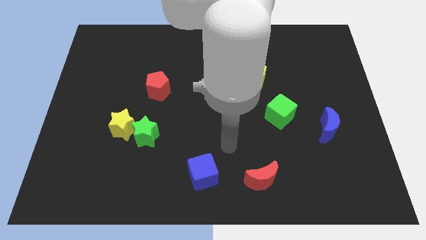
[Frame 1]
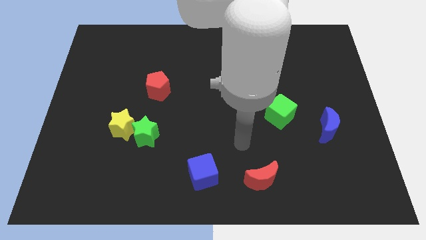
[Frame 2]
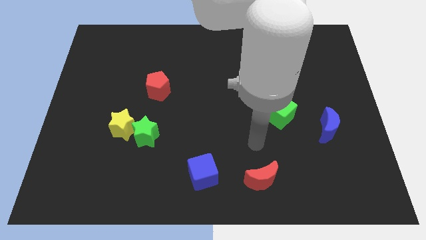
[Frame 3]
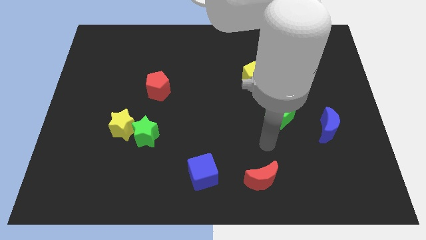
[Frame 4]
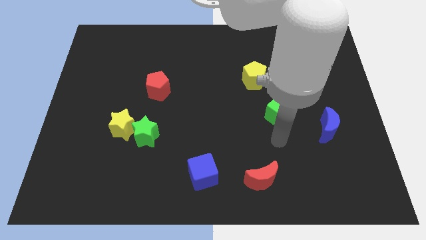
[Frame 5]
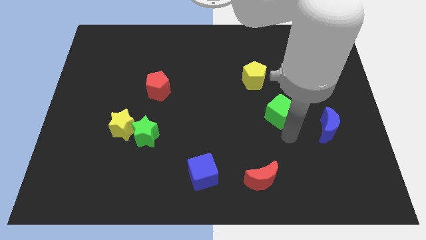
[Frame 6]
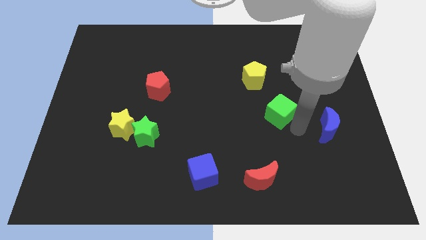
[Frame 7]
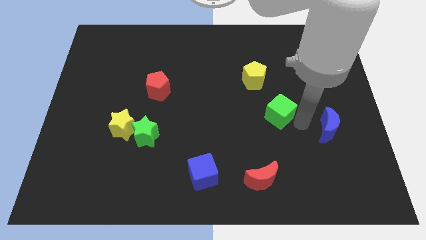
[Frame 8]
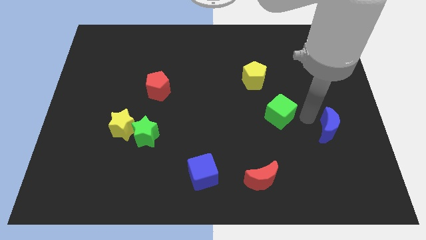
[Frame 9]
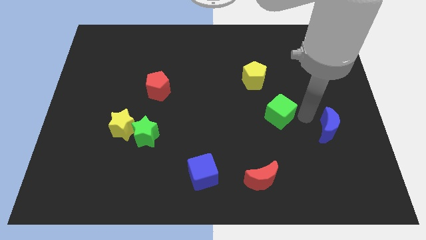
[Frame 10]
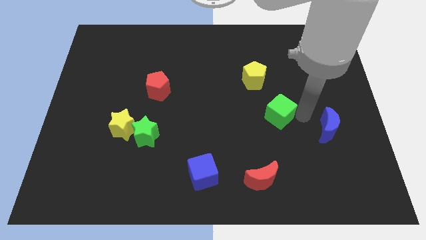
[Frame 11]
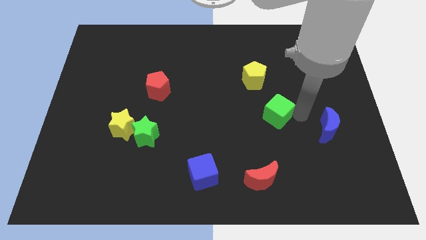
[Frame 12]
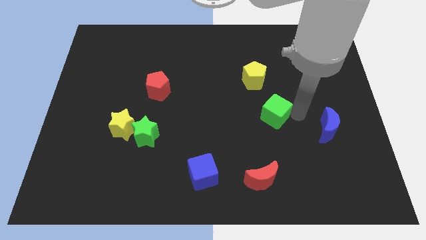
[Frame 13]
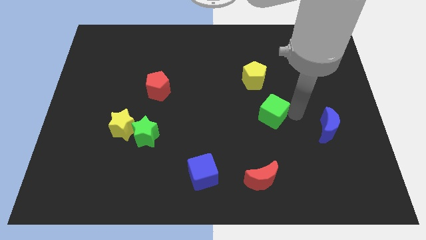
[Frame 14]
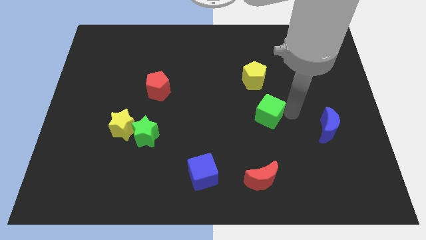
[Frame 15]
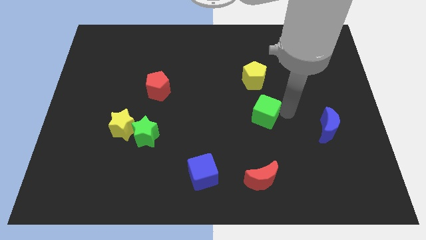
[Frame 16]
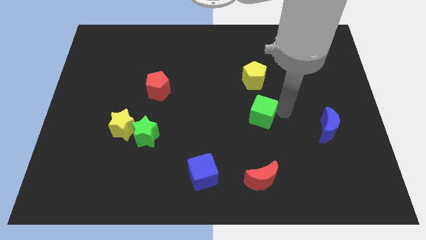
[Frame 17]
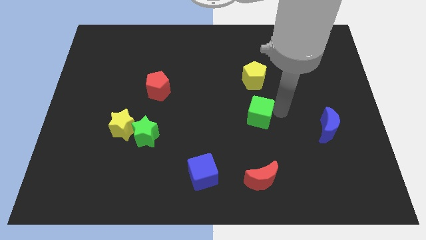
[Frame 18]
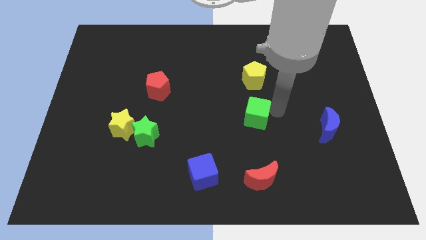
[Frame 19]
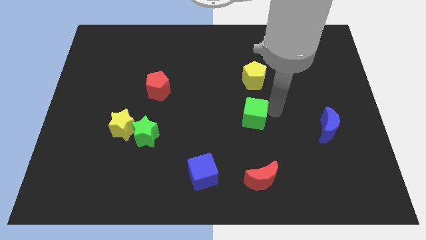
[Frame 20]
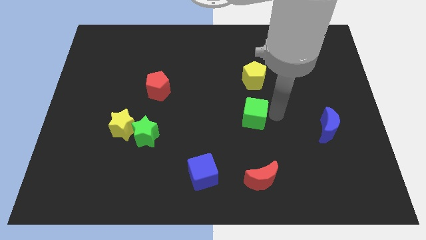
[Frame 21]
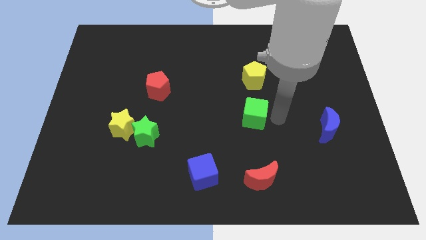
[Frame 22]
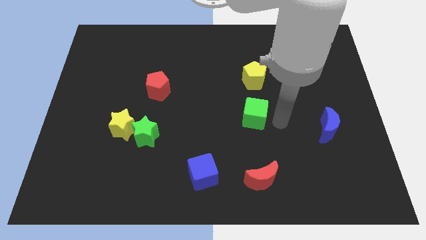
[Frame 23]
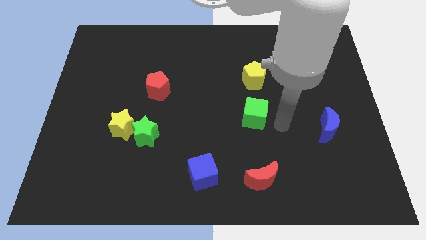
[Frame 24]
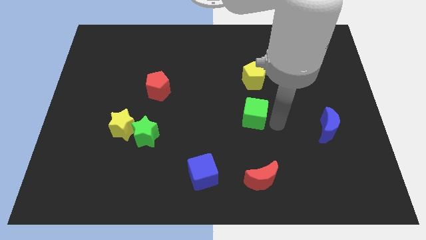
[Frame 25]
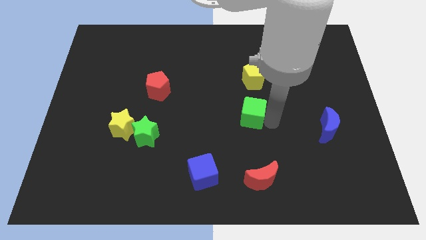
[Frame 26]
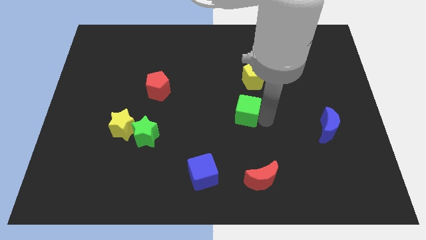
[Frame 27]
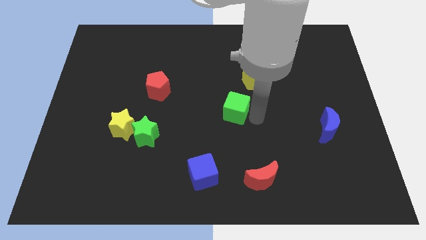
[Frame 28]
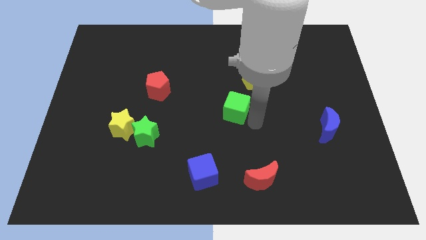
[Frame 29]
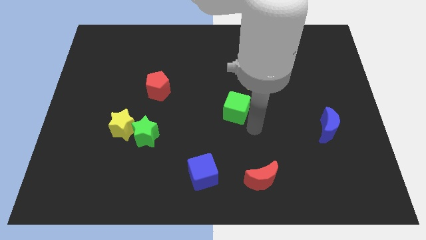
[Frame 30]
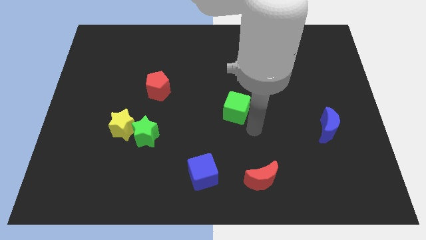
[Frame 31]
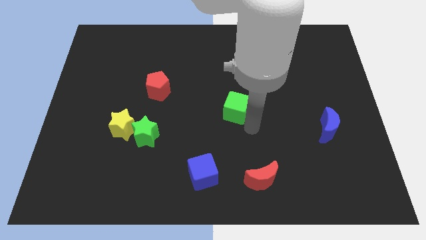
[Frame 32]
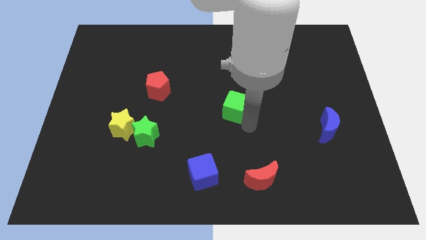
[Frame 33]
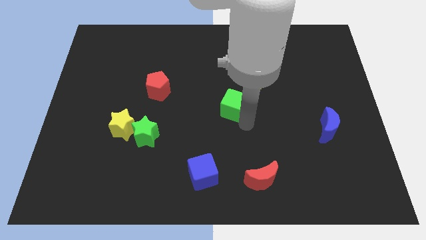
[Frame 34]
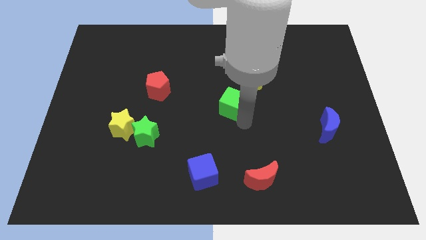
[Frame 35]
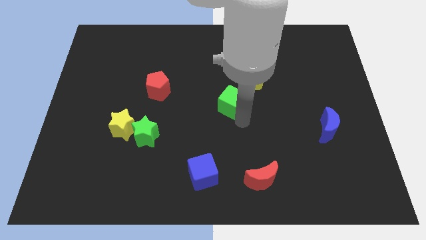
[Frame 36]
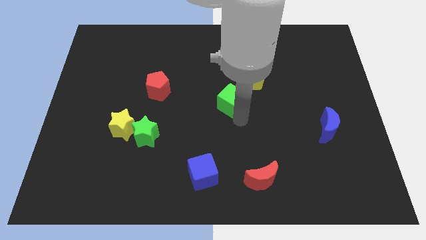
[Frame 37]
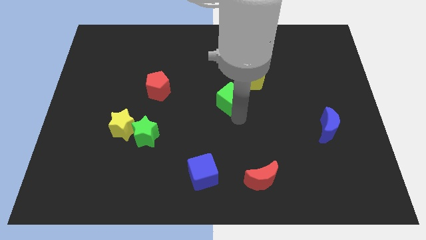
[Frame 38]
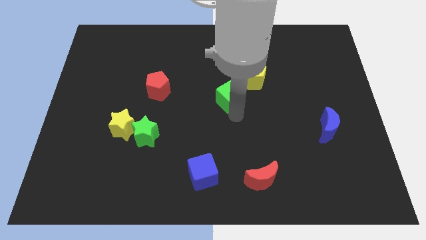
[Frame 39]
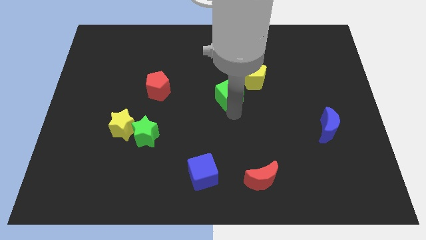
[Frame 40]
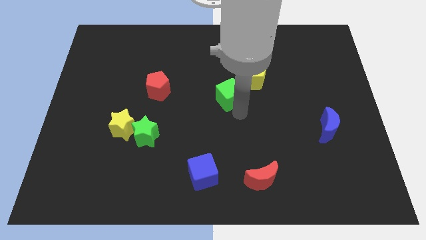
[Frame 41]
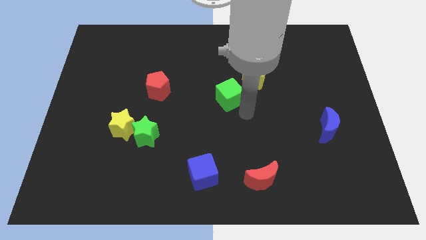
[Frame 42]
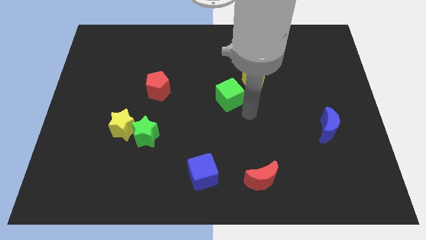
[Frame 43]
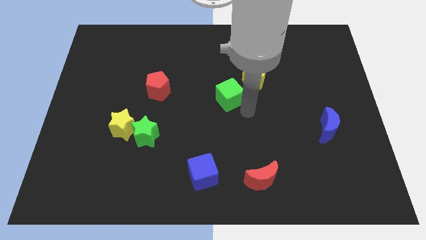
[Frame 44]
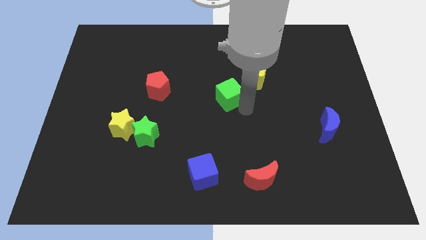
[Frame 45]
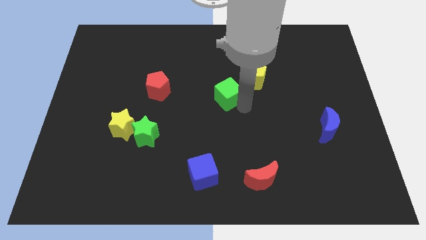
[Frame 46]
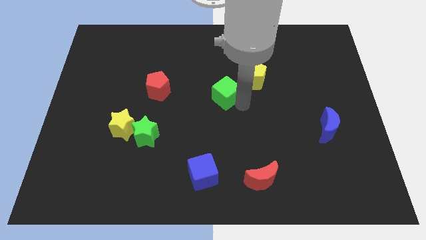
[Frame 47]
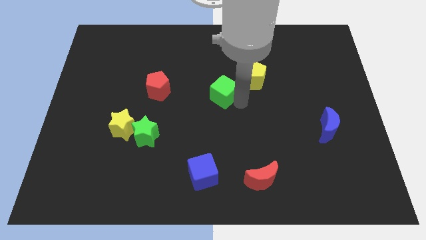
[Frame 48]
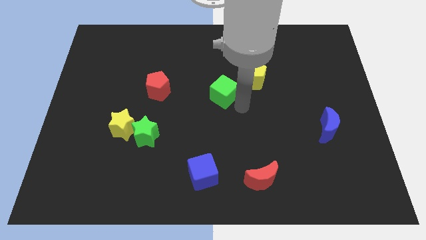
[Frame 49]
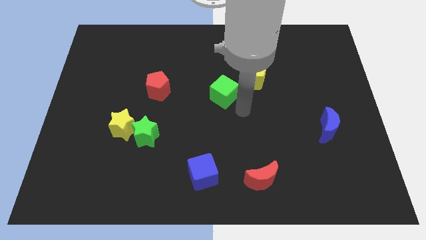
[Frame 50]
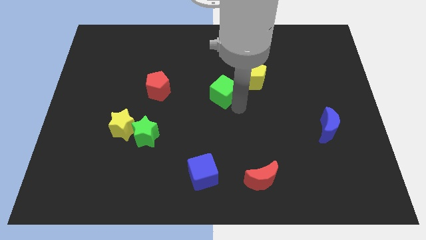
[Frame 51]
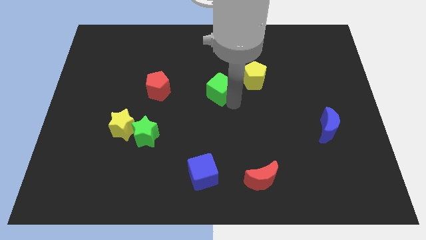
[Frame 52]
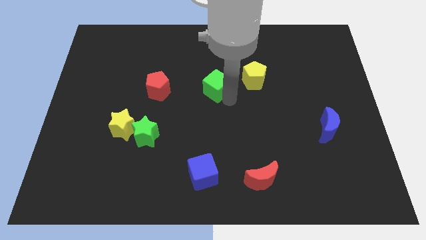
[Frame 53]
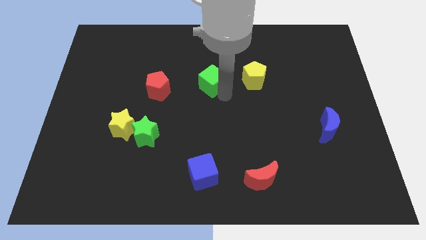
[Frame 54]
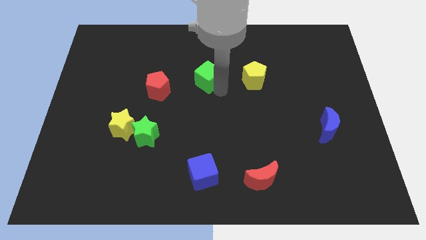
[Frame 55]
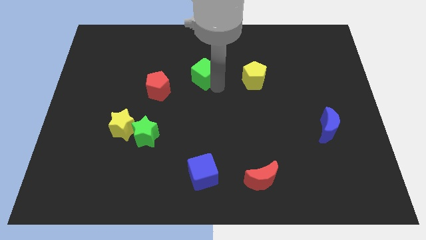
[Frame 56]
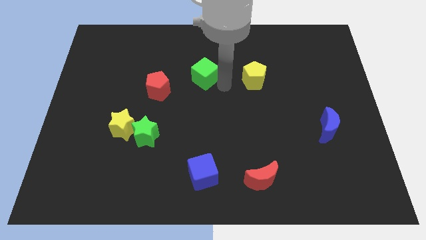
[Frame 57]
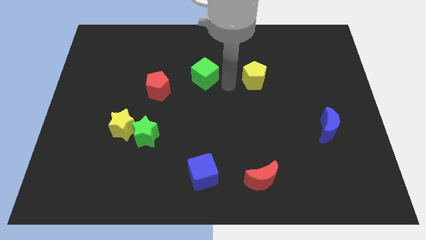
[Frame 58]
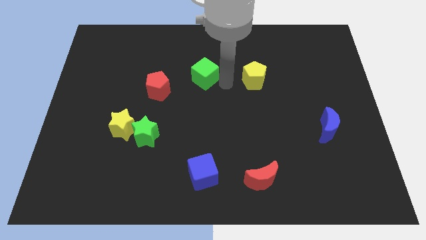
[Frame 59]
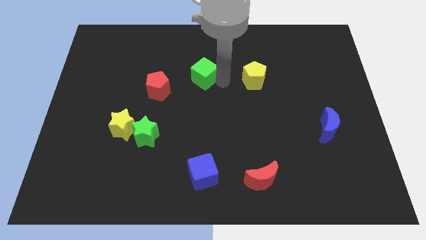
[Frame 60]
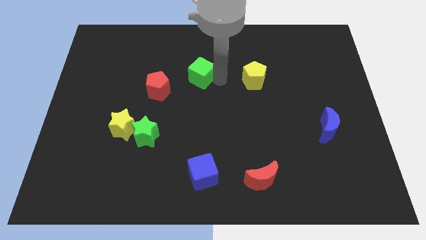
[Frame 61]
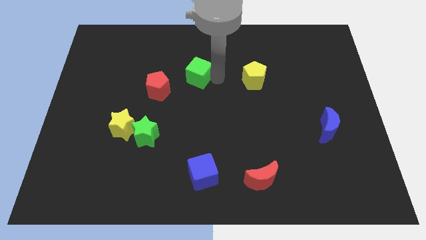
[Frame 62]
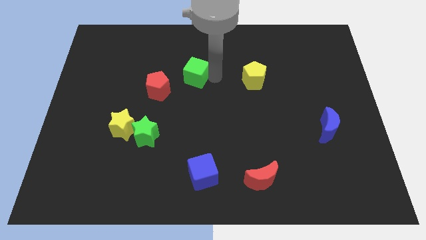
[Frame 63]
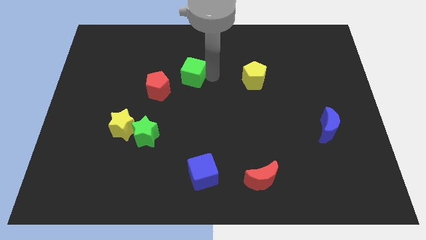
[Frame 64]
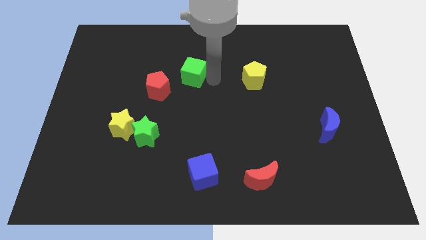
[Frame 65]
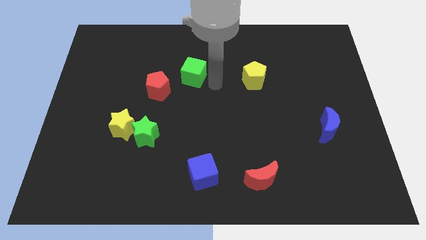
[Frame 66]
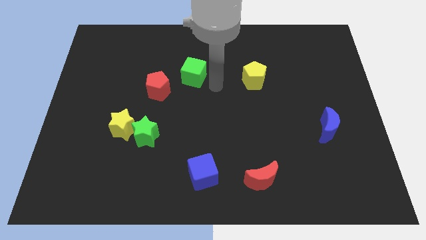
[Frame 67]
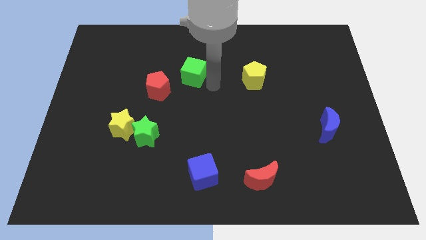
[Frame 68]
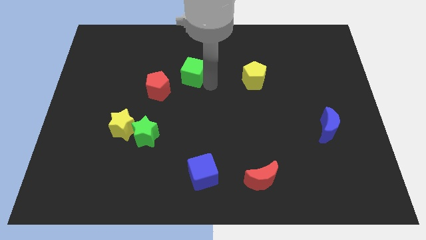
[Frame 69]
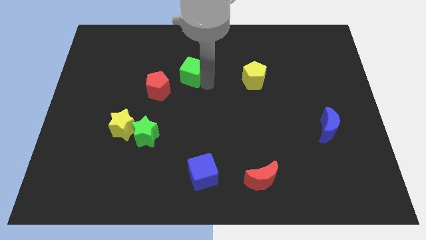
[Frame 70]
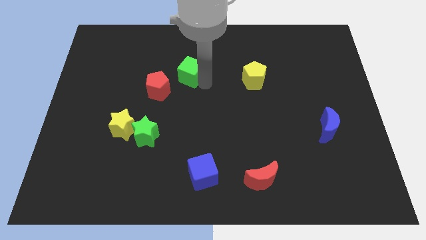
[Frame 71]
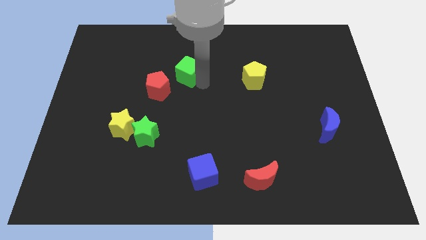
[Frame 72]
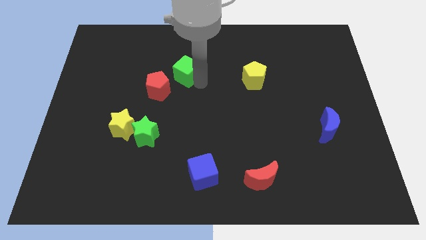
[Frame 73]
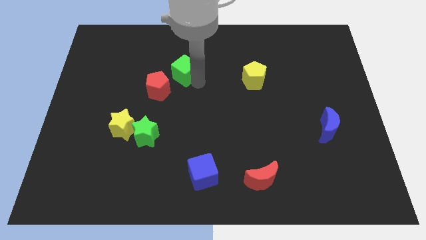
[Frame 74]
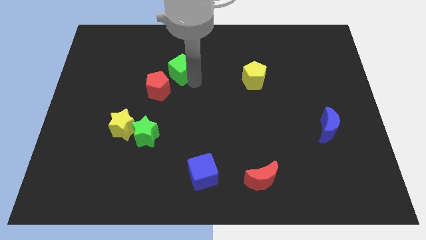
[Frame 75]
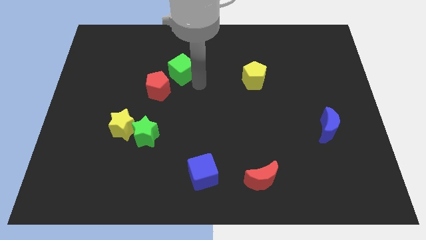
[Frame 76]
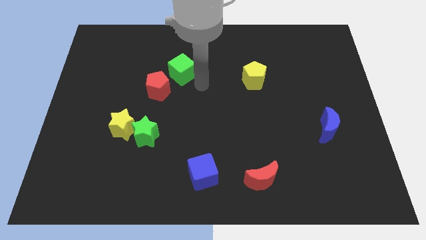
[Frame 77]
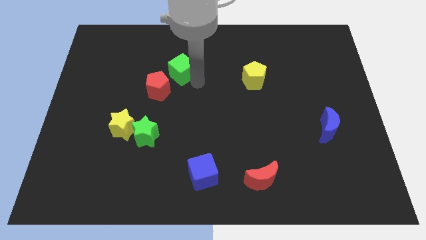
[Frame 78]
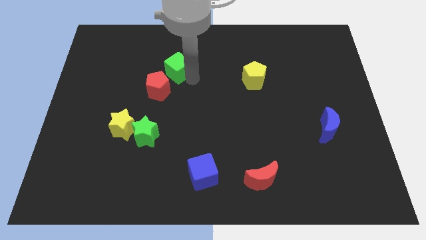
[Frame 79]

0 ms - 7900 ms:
push the green cube to the top side of the red pentagon
